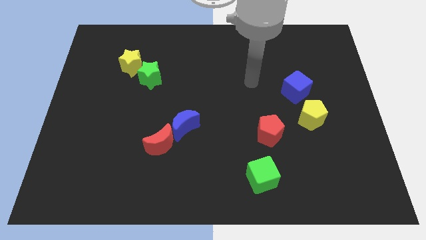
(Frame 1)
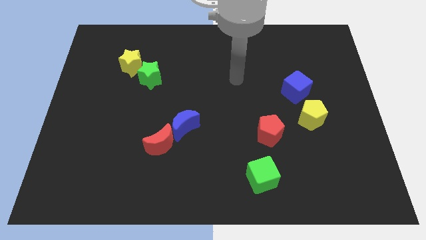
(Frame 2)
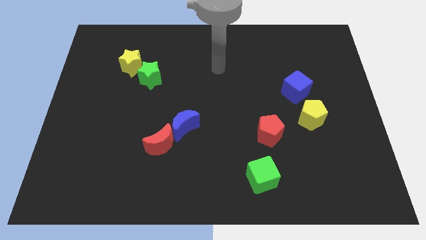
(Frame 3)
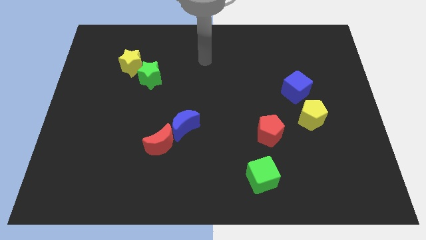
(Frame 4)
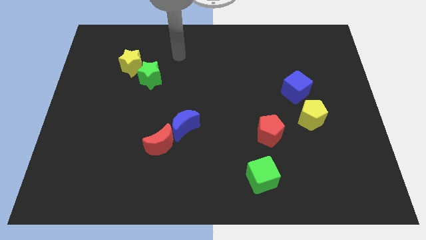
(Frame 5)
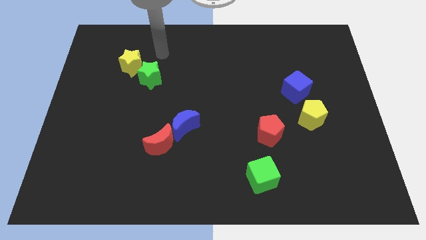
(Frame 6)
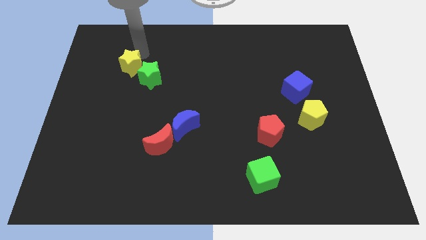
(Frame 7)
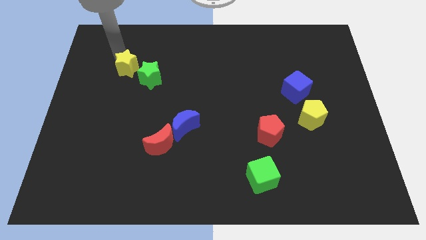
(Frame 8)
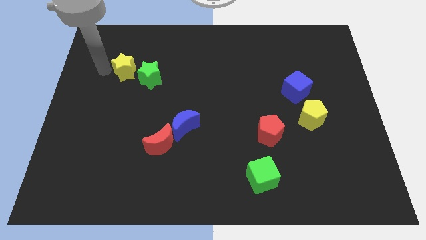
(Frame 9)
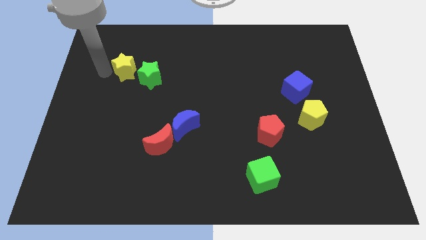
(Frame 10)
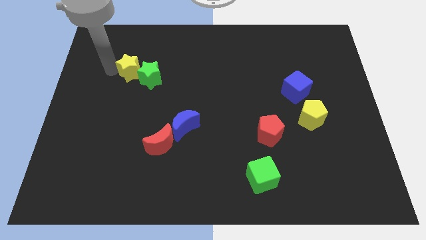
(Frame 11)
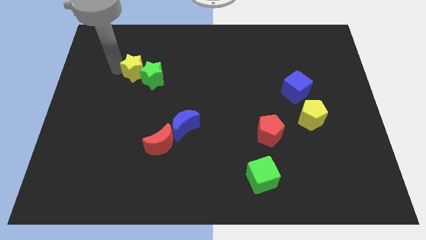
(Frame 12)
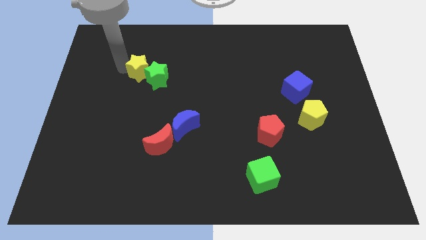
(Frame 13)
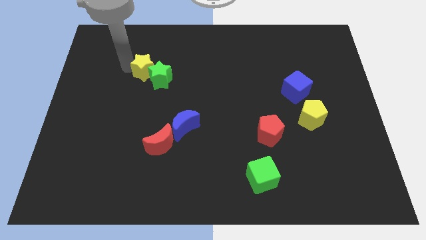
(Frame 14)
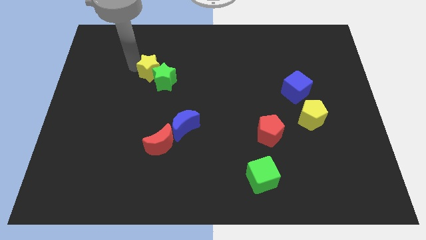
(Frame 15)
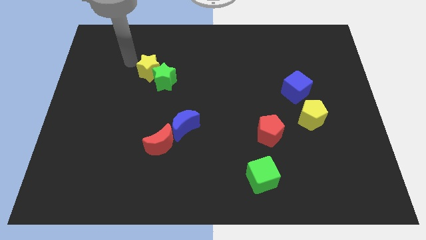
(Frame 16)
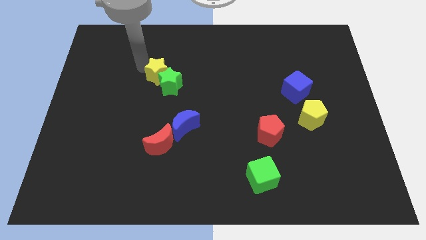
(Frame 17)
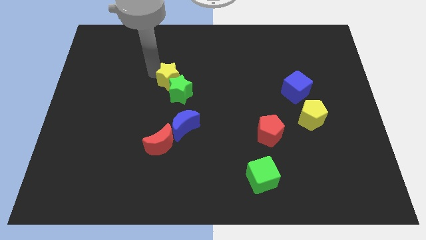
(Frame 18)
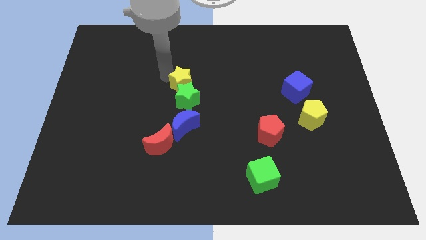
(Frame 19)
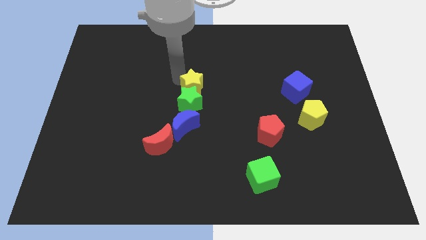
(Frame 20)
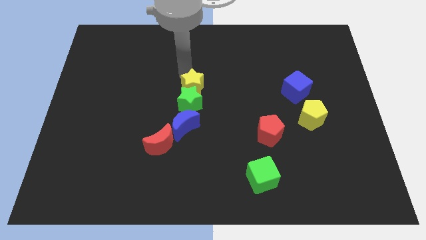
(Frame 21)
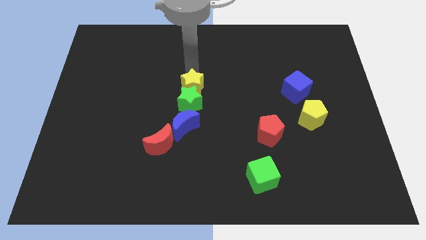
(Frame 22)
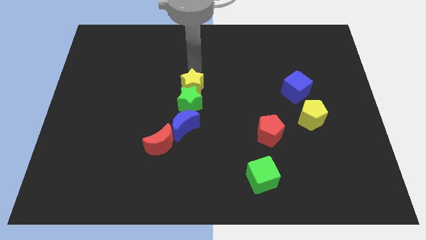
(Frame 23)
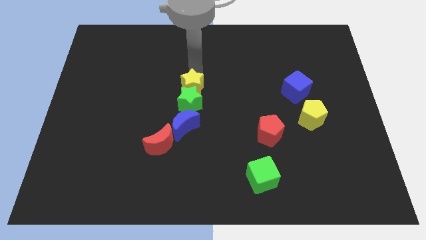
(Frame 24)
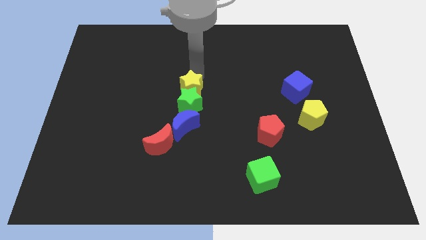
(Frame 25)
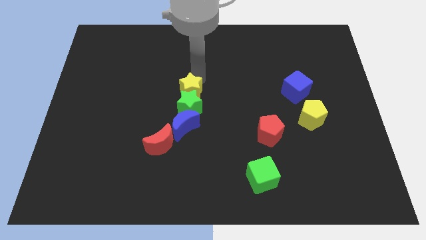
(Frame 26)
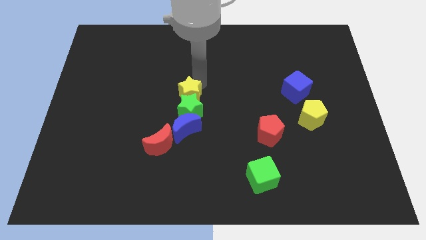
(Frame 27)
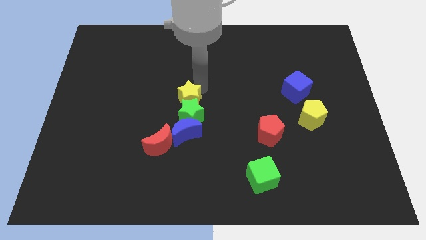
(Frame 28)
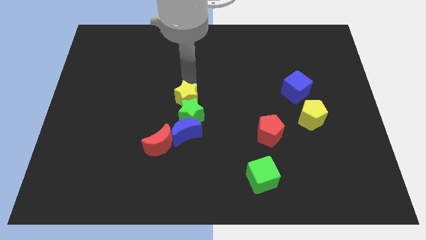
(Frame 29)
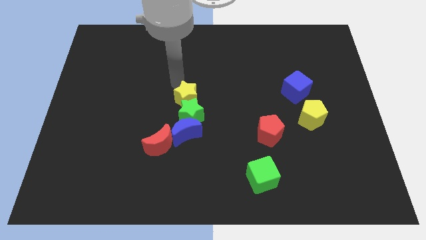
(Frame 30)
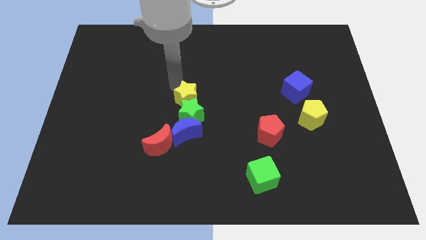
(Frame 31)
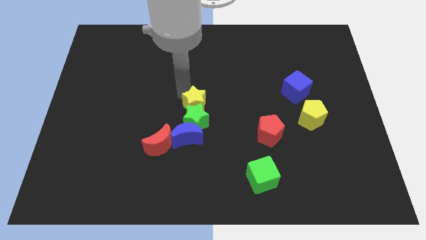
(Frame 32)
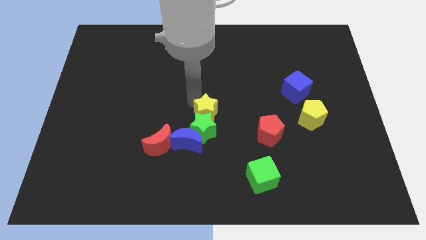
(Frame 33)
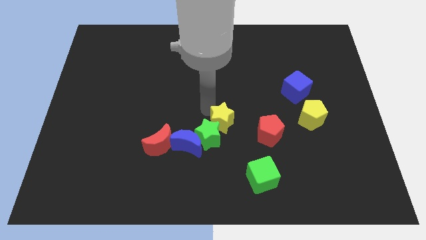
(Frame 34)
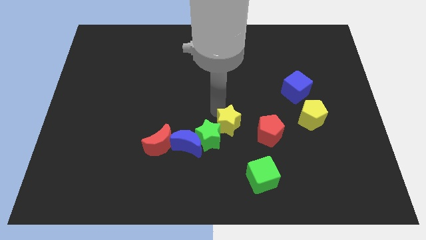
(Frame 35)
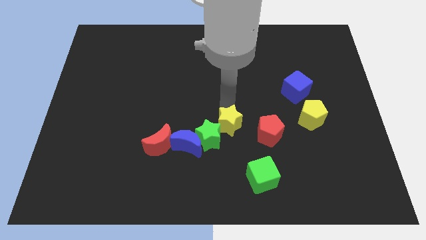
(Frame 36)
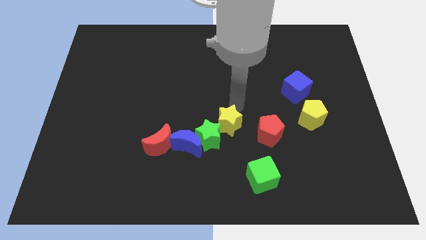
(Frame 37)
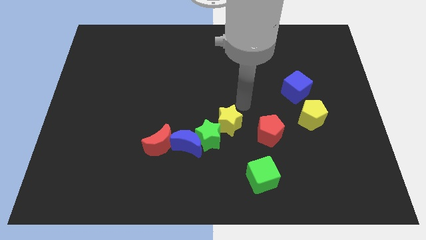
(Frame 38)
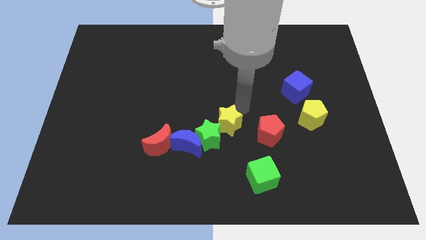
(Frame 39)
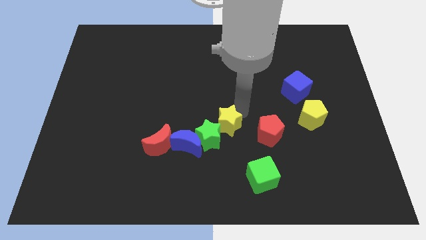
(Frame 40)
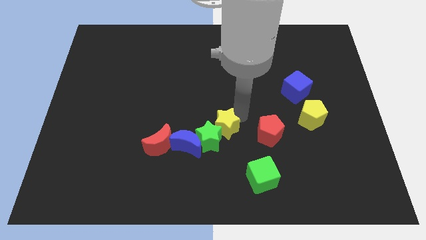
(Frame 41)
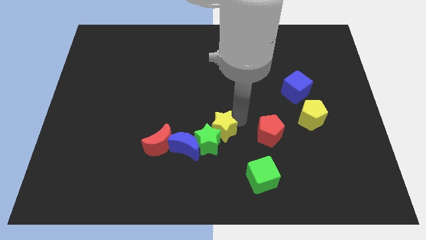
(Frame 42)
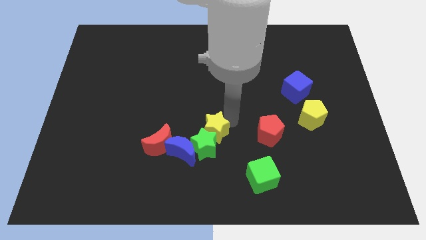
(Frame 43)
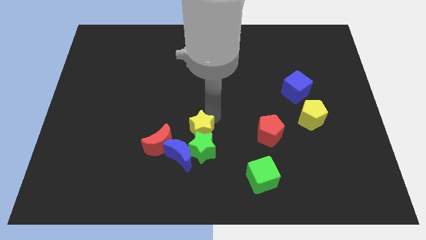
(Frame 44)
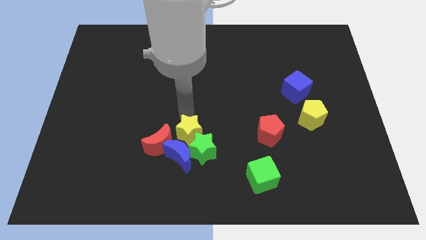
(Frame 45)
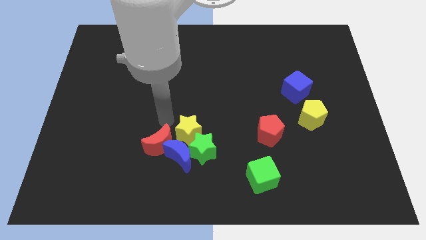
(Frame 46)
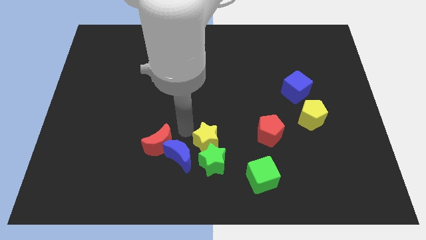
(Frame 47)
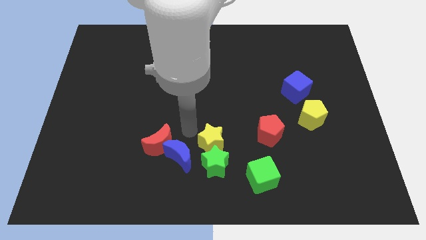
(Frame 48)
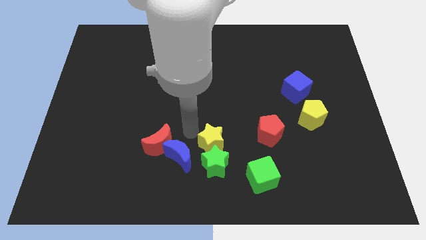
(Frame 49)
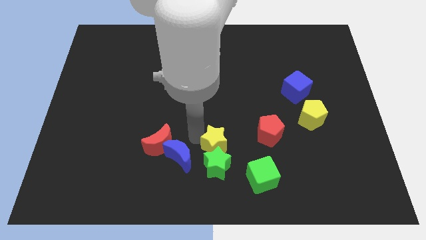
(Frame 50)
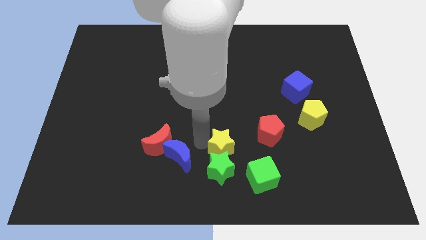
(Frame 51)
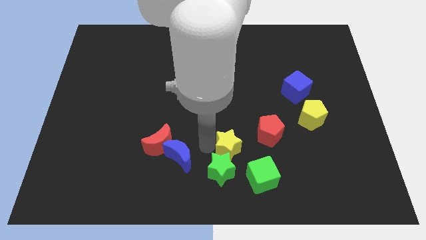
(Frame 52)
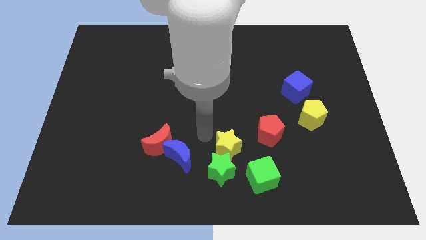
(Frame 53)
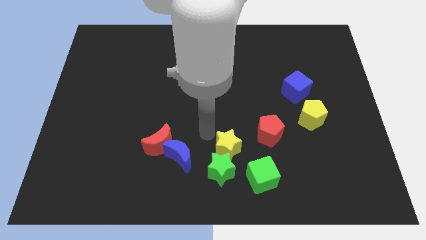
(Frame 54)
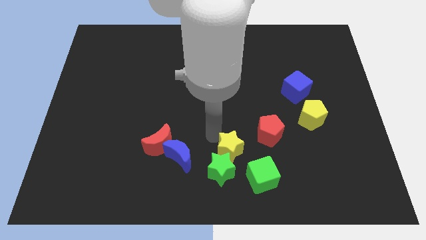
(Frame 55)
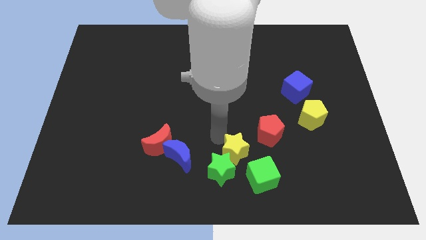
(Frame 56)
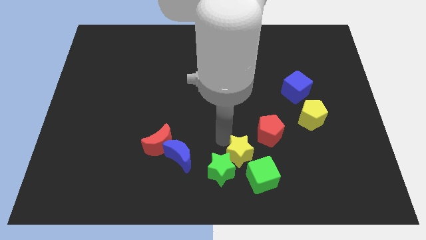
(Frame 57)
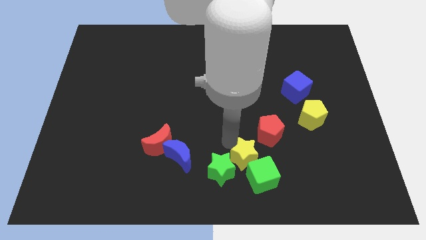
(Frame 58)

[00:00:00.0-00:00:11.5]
push the yellow star to the green cube

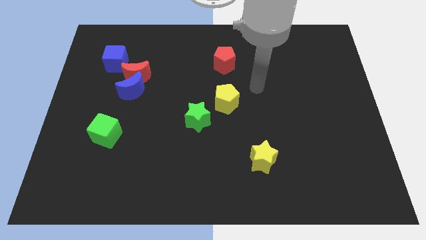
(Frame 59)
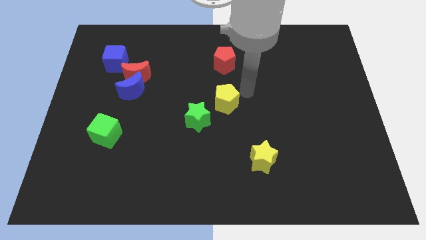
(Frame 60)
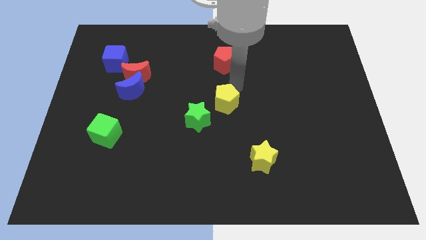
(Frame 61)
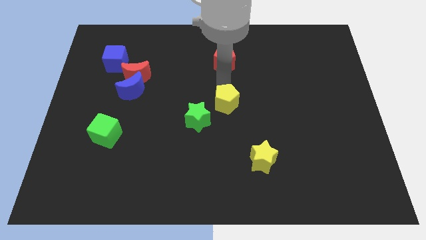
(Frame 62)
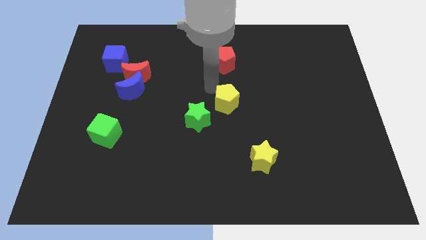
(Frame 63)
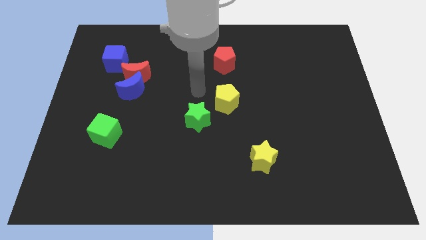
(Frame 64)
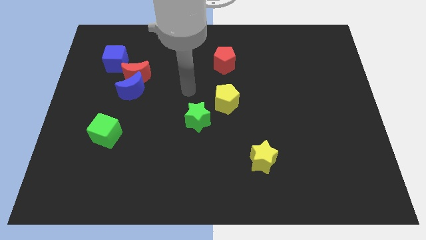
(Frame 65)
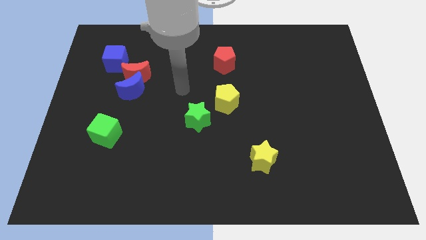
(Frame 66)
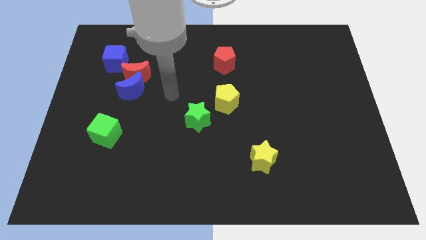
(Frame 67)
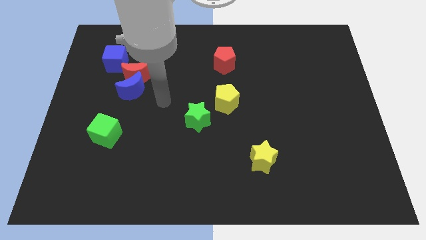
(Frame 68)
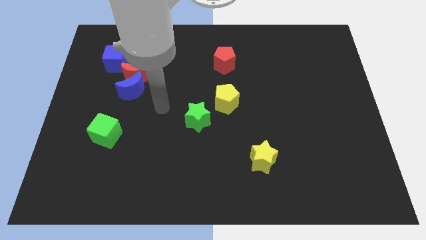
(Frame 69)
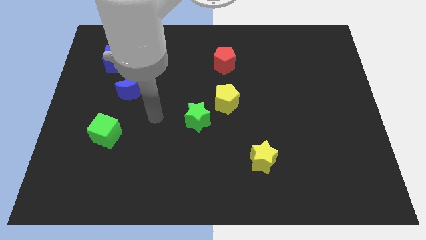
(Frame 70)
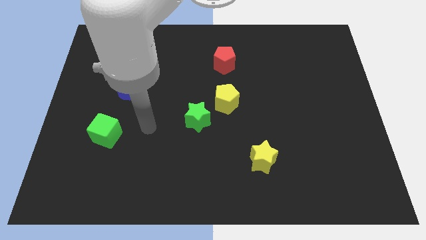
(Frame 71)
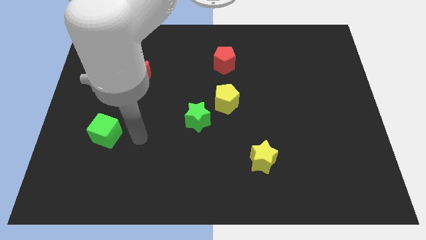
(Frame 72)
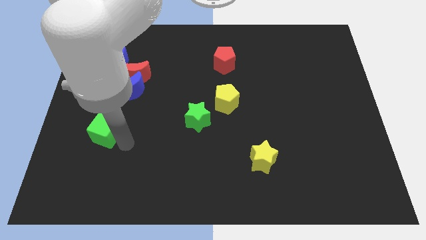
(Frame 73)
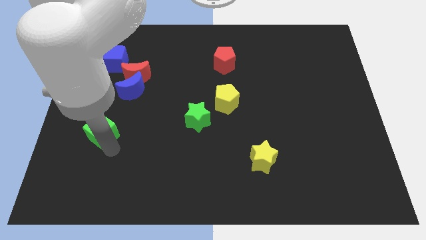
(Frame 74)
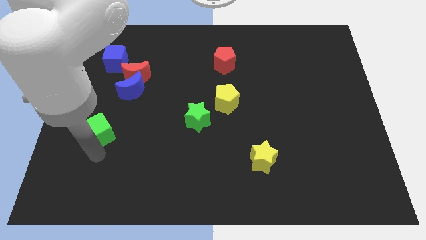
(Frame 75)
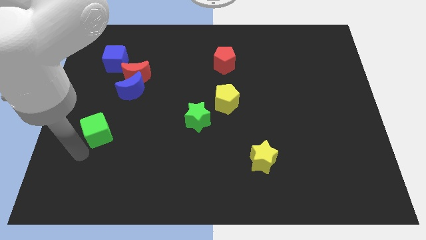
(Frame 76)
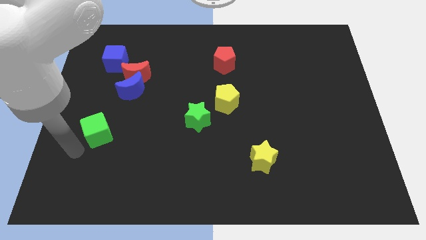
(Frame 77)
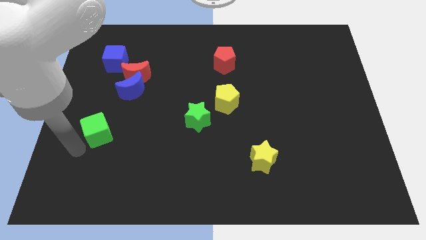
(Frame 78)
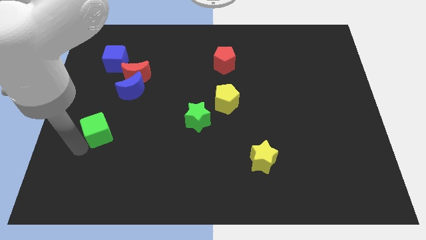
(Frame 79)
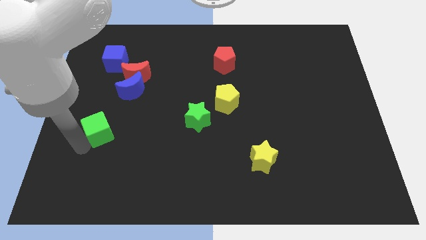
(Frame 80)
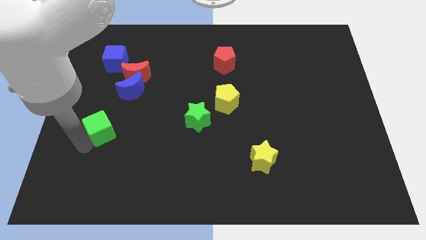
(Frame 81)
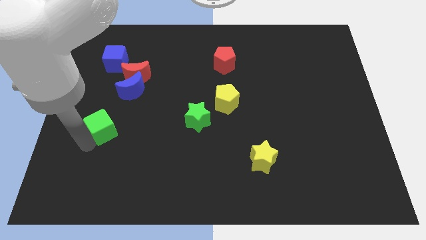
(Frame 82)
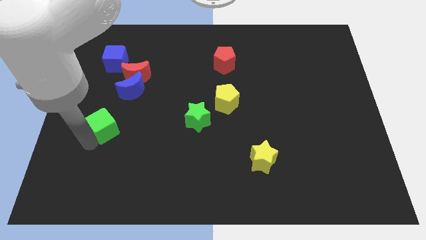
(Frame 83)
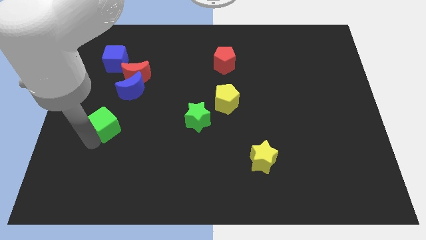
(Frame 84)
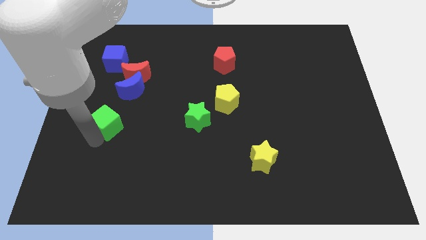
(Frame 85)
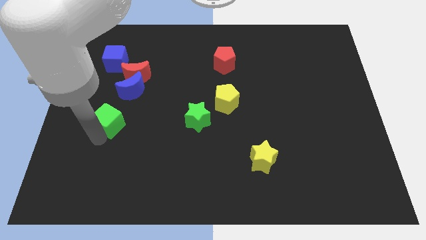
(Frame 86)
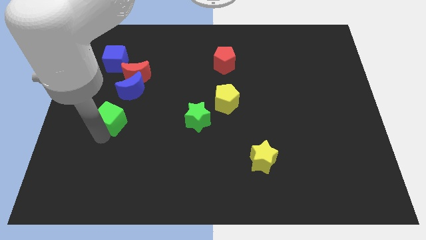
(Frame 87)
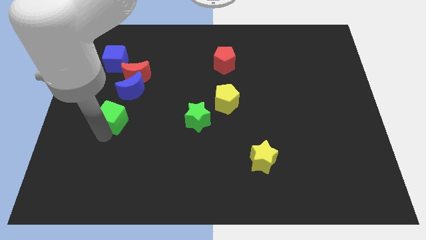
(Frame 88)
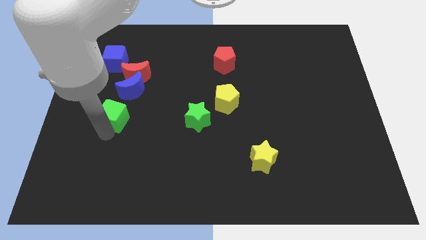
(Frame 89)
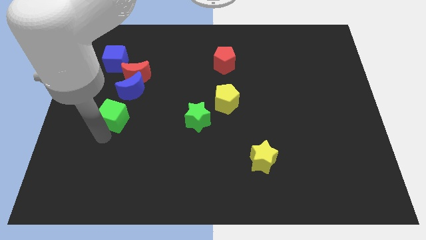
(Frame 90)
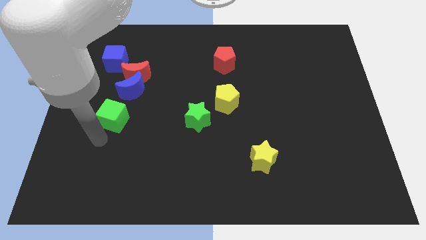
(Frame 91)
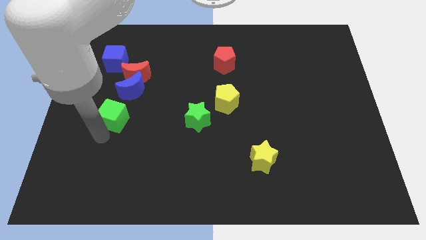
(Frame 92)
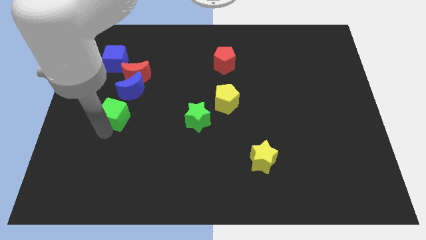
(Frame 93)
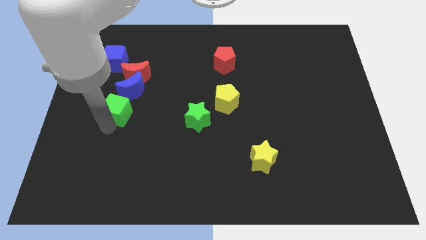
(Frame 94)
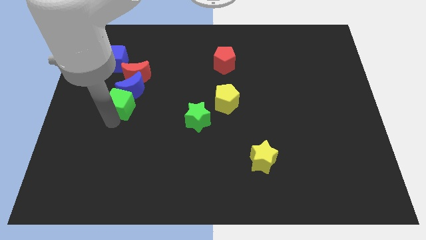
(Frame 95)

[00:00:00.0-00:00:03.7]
push the green cube to the blue moon
